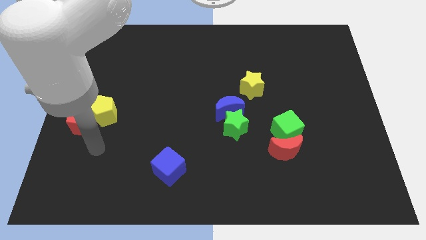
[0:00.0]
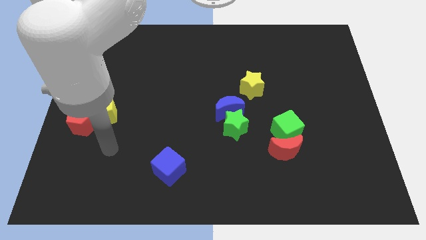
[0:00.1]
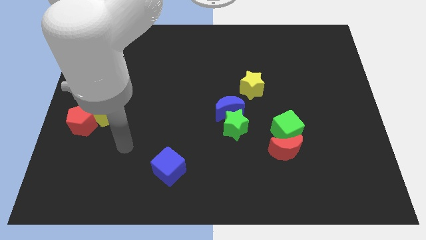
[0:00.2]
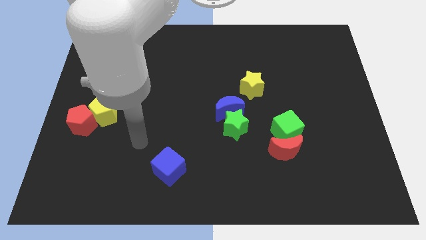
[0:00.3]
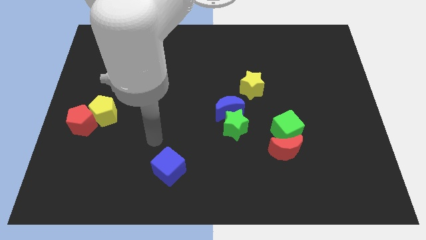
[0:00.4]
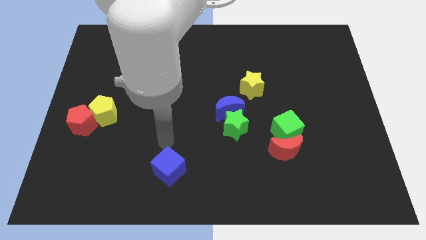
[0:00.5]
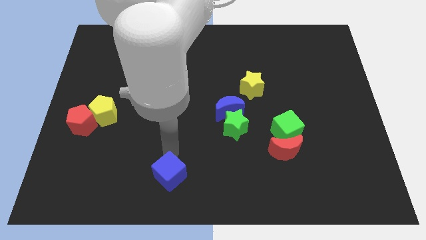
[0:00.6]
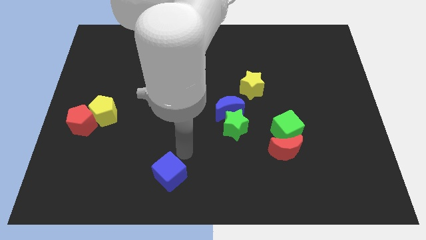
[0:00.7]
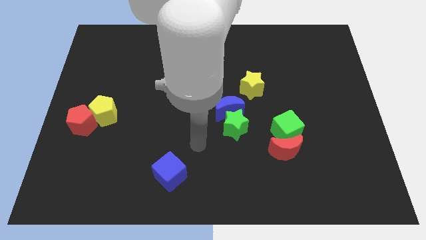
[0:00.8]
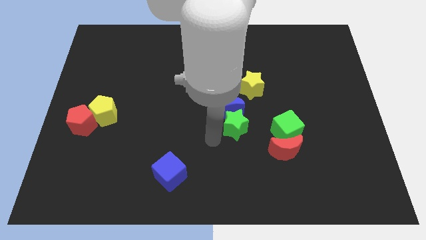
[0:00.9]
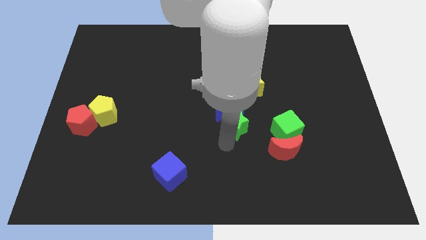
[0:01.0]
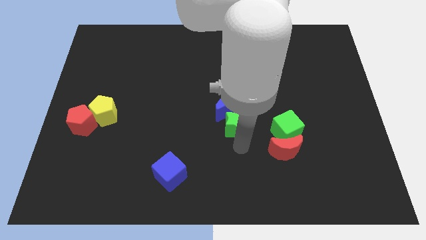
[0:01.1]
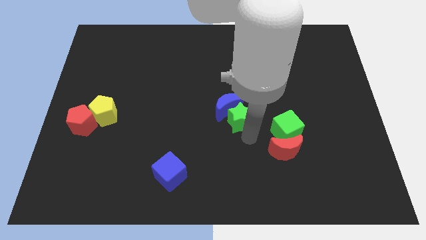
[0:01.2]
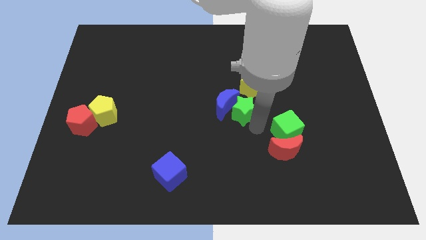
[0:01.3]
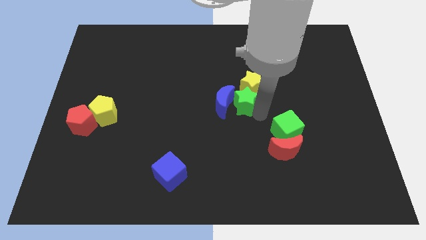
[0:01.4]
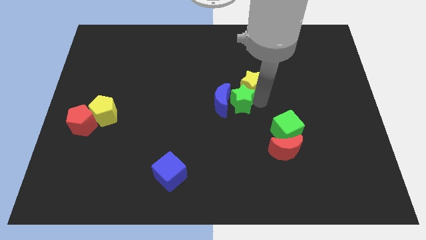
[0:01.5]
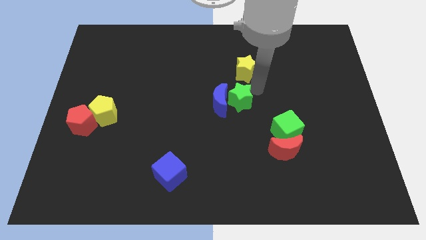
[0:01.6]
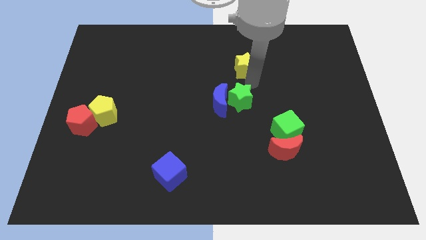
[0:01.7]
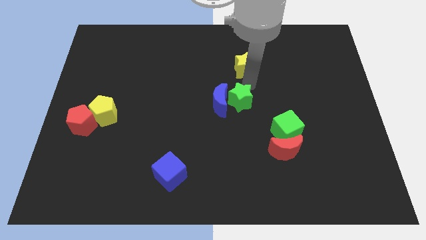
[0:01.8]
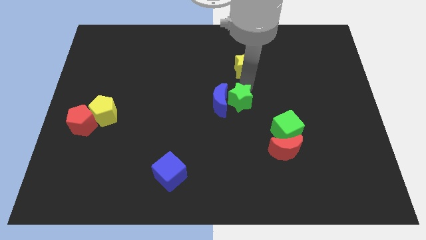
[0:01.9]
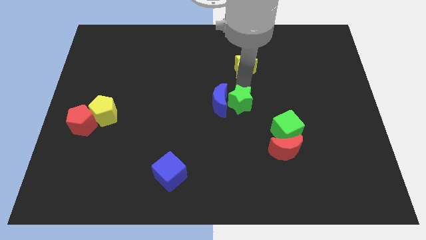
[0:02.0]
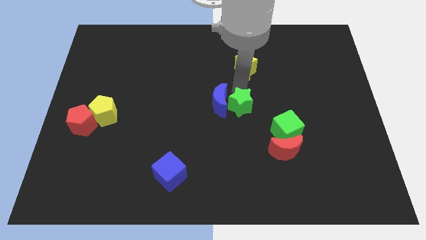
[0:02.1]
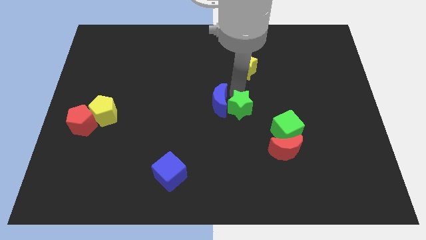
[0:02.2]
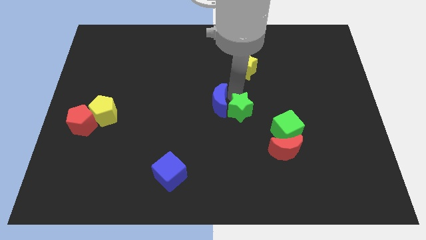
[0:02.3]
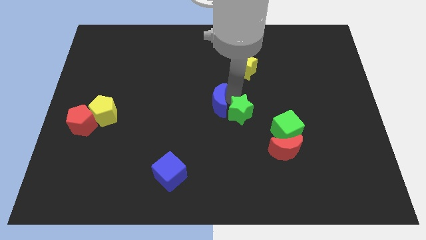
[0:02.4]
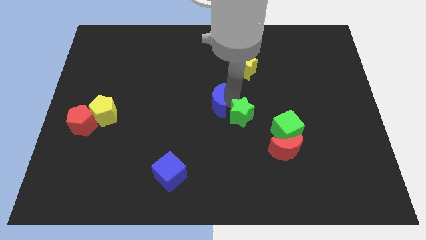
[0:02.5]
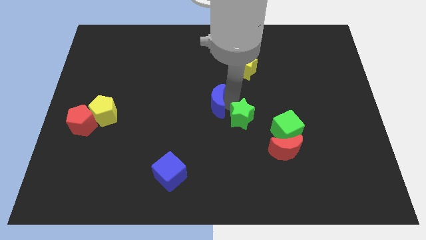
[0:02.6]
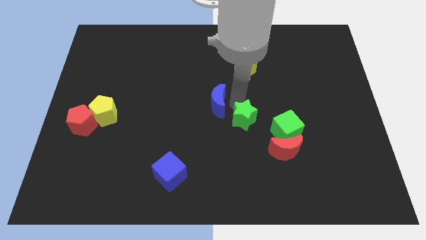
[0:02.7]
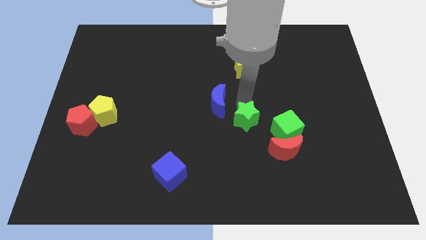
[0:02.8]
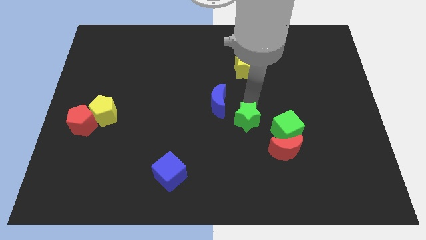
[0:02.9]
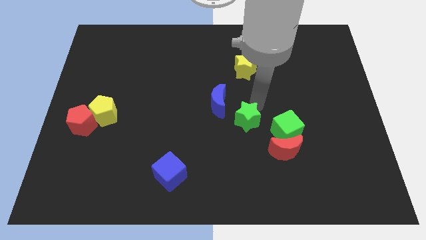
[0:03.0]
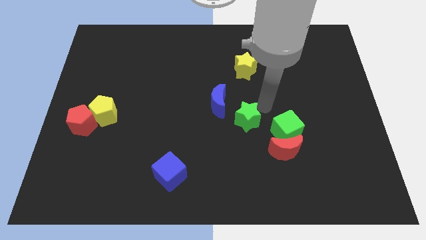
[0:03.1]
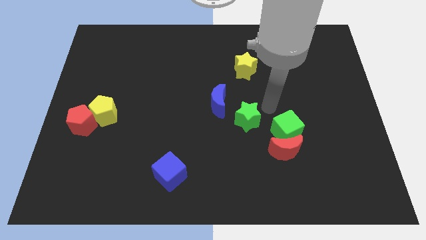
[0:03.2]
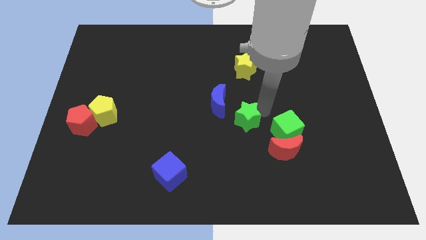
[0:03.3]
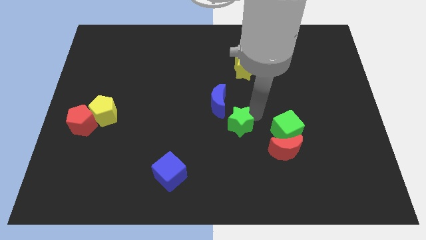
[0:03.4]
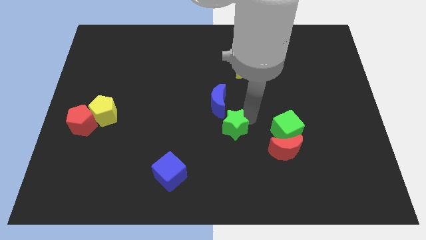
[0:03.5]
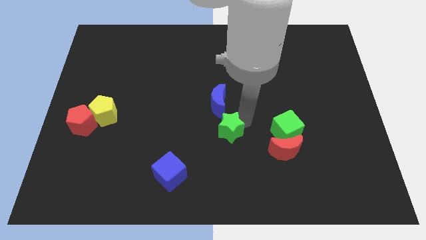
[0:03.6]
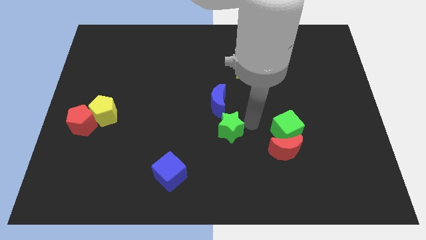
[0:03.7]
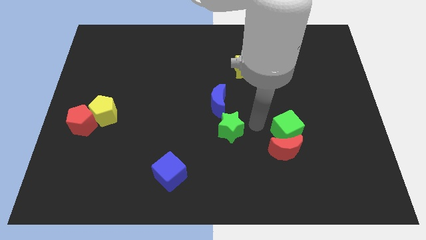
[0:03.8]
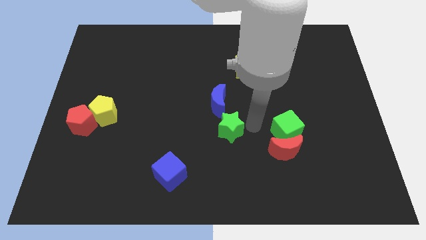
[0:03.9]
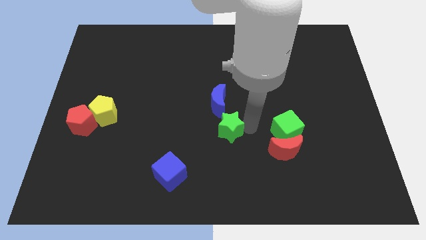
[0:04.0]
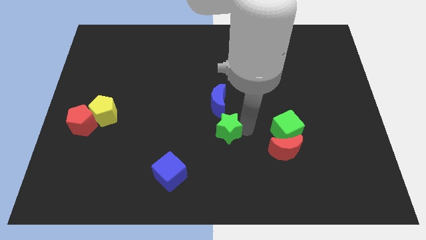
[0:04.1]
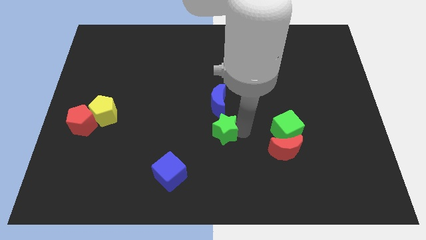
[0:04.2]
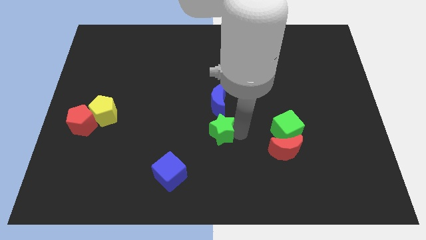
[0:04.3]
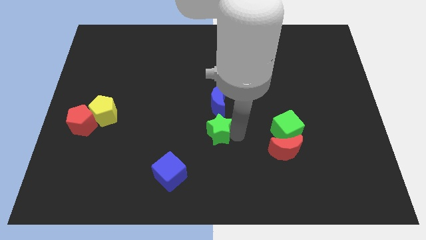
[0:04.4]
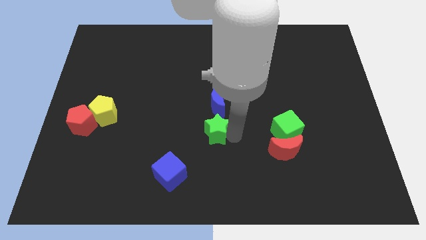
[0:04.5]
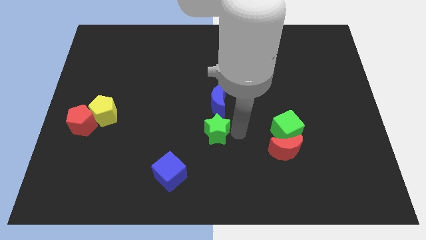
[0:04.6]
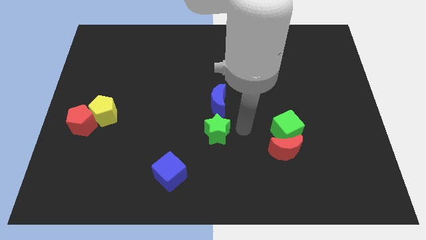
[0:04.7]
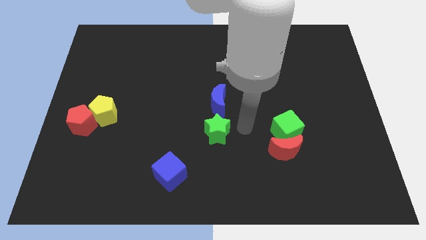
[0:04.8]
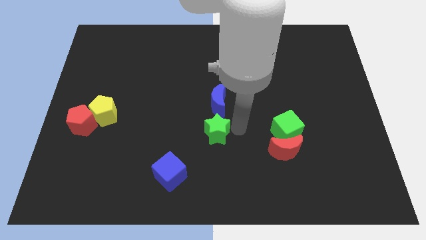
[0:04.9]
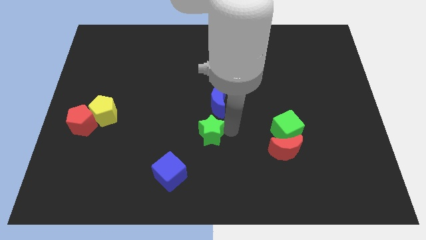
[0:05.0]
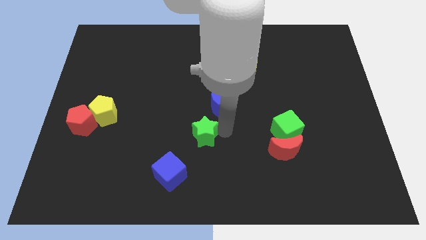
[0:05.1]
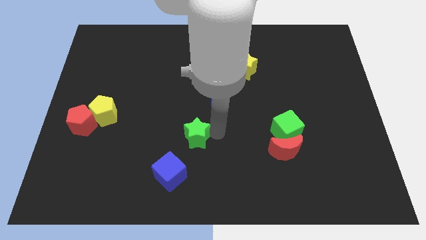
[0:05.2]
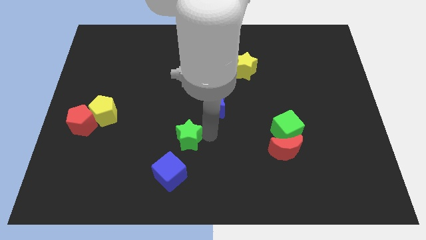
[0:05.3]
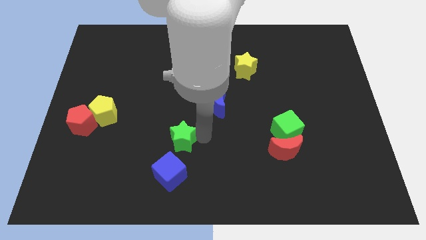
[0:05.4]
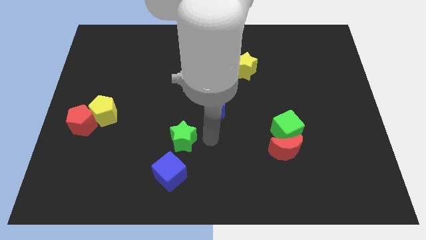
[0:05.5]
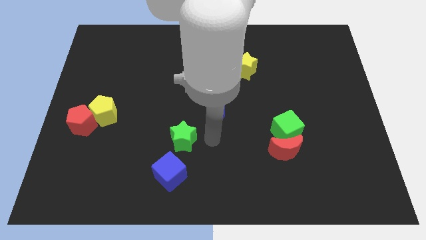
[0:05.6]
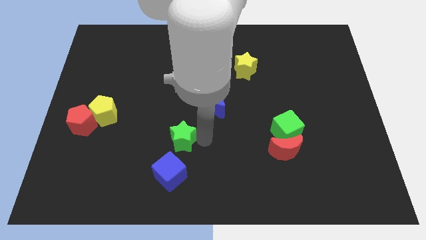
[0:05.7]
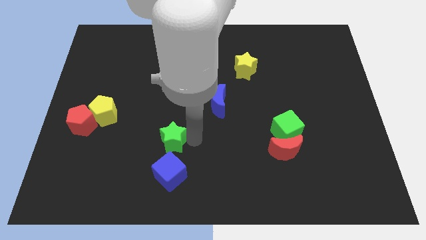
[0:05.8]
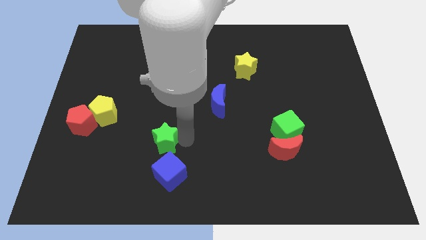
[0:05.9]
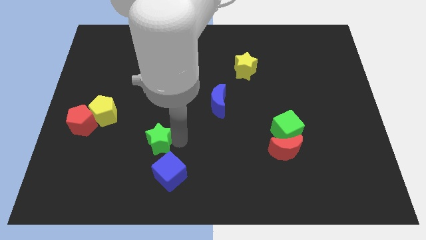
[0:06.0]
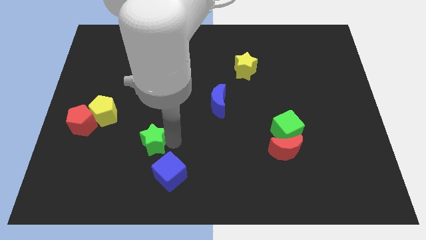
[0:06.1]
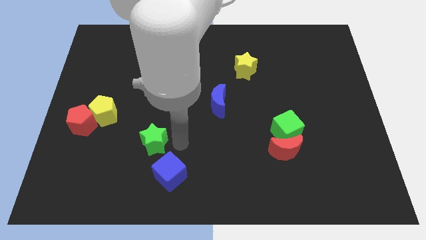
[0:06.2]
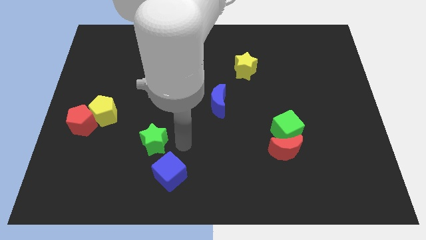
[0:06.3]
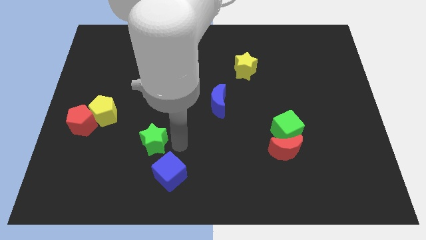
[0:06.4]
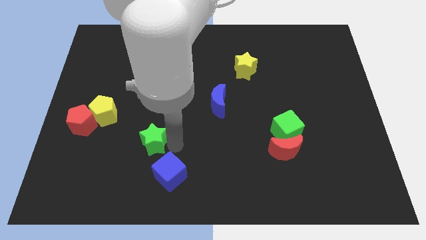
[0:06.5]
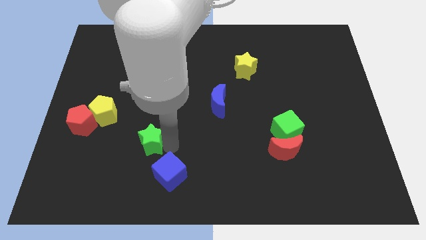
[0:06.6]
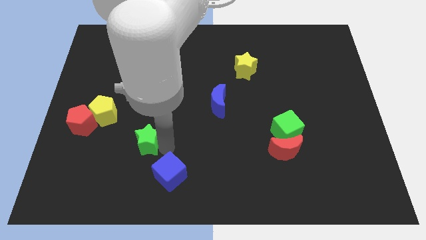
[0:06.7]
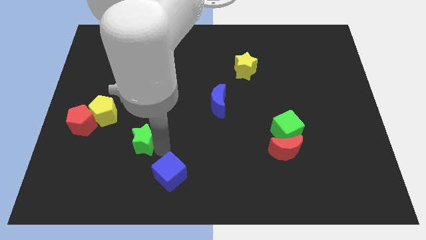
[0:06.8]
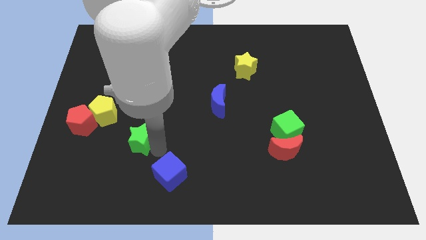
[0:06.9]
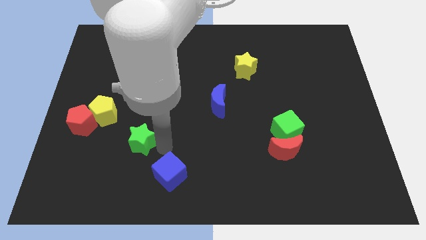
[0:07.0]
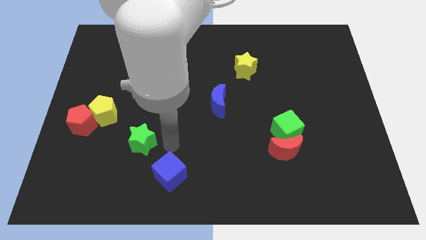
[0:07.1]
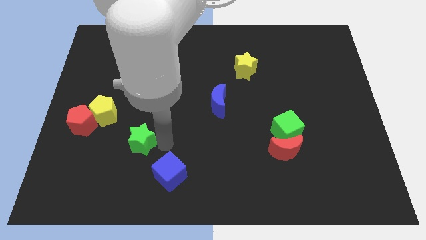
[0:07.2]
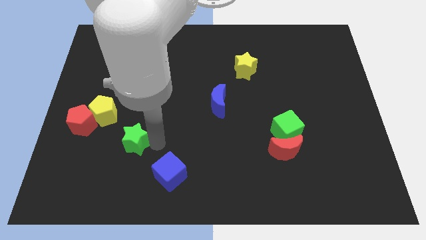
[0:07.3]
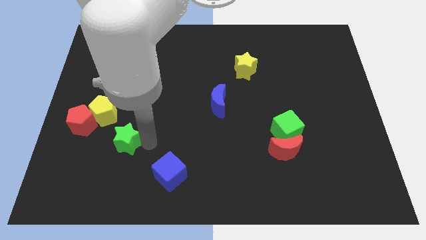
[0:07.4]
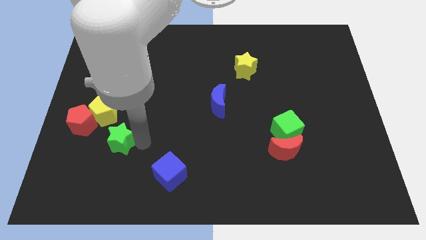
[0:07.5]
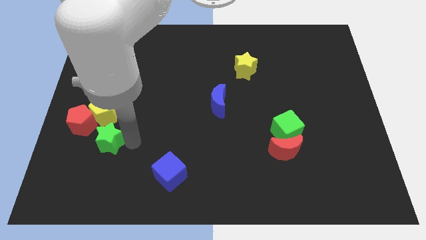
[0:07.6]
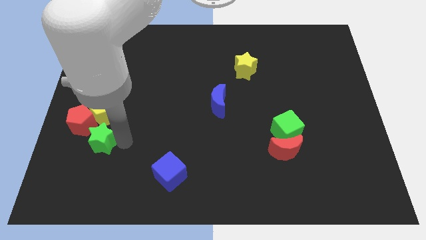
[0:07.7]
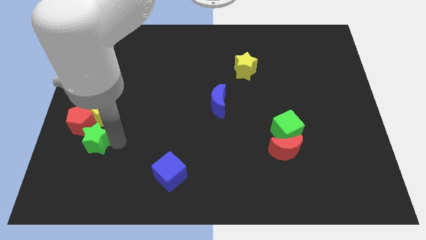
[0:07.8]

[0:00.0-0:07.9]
move the green star next to the red pentagon
